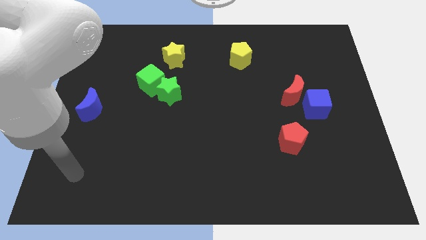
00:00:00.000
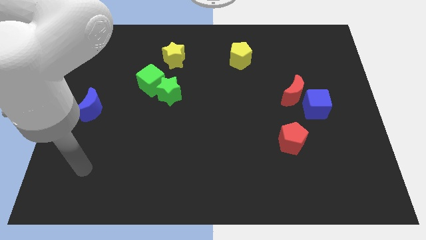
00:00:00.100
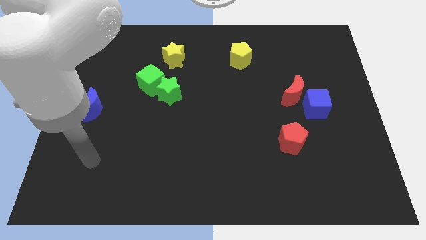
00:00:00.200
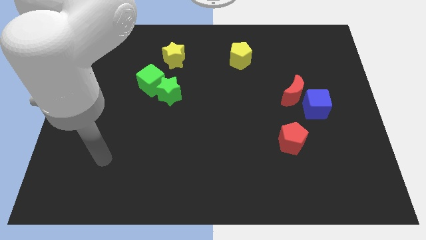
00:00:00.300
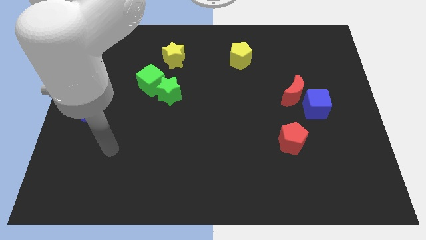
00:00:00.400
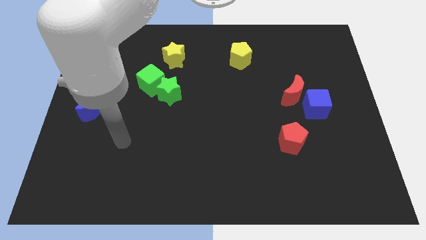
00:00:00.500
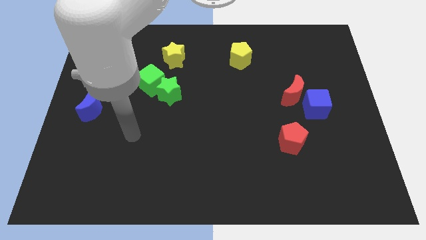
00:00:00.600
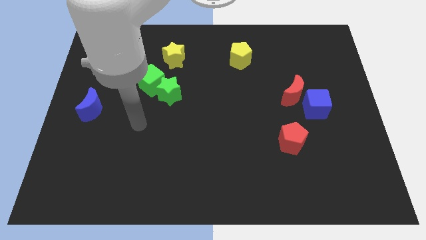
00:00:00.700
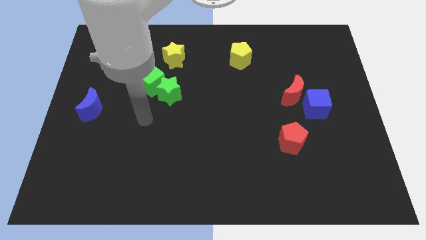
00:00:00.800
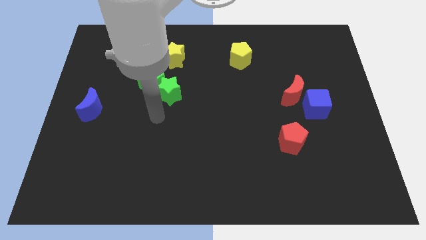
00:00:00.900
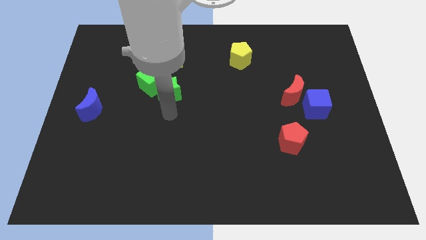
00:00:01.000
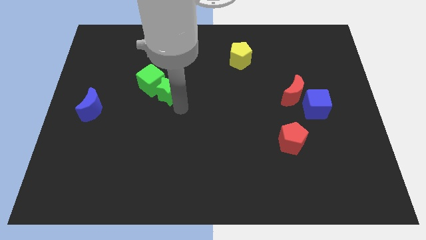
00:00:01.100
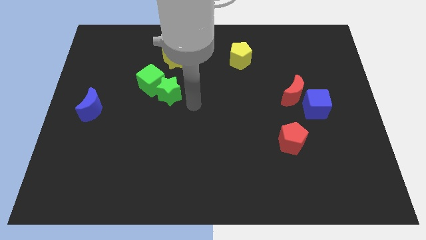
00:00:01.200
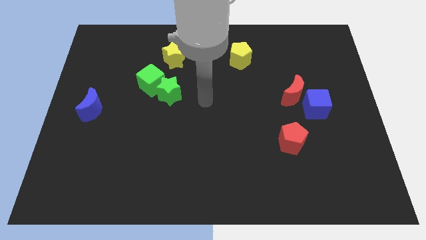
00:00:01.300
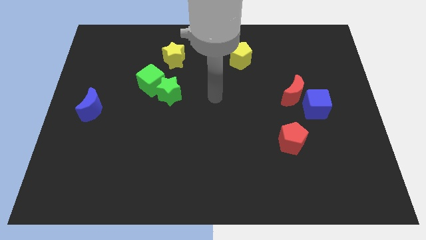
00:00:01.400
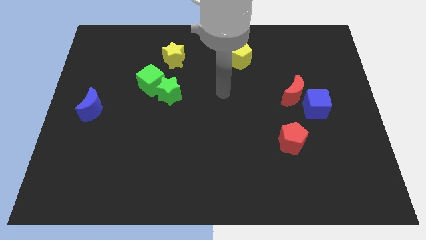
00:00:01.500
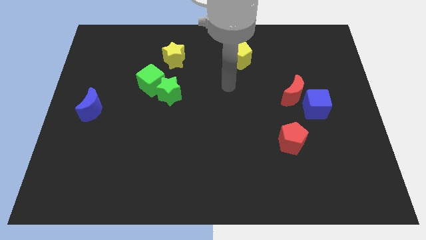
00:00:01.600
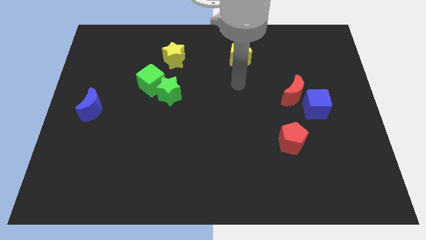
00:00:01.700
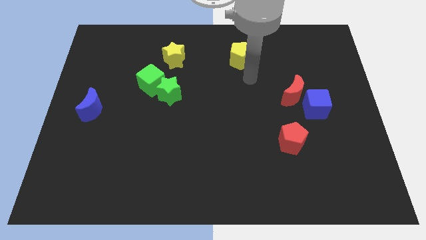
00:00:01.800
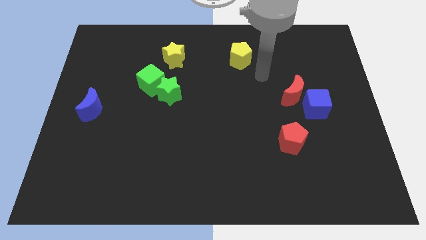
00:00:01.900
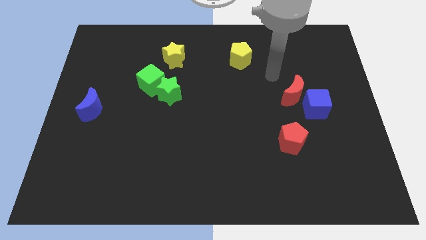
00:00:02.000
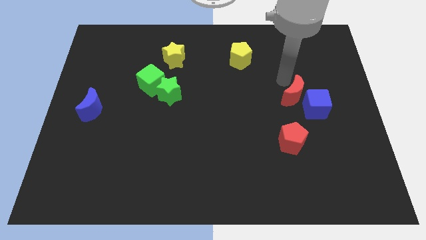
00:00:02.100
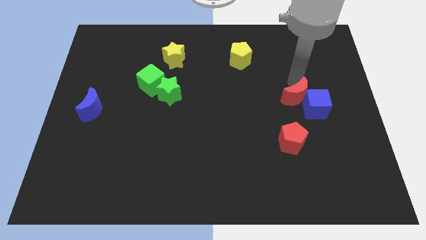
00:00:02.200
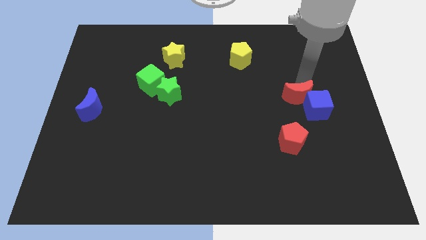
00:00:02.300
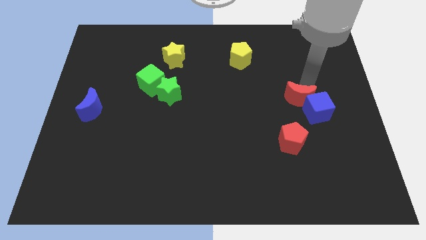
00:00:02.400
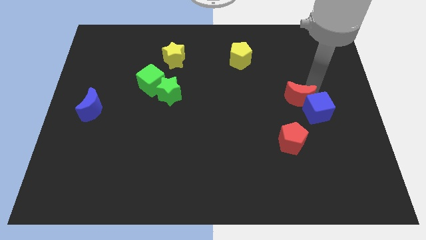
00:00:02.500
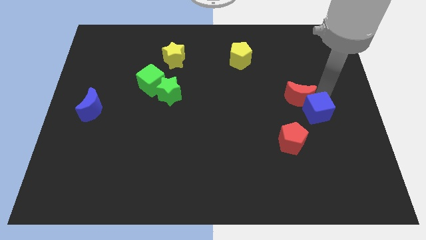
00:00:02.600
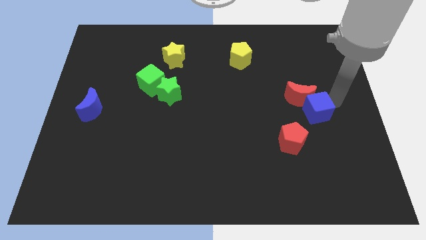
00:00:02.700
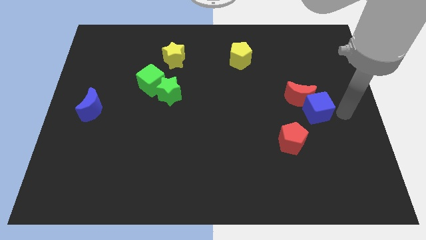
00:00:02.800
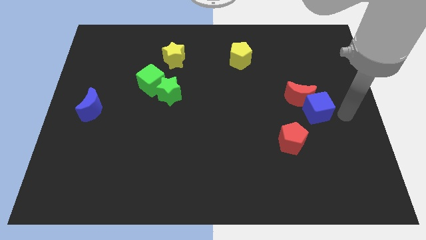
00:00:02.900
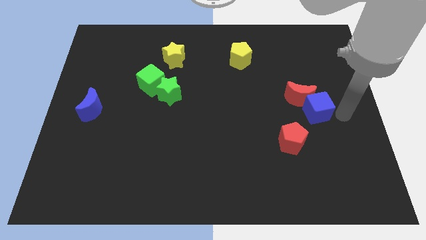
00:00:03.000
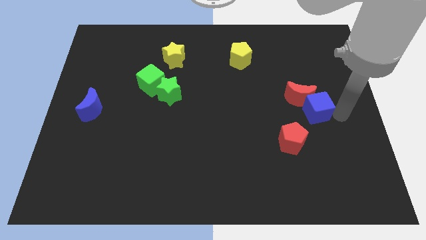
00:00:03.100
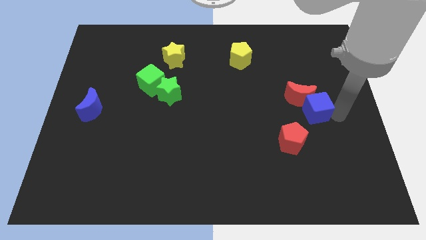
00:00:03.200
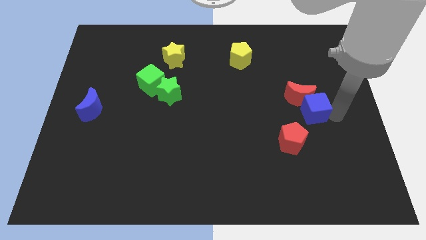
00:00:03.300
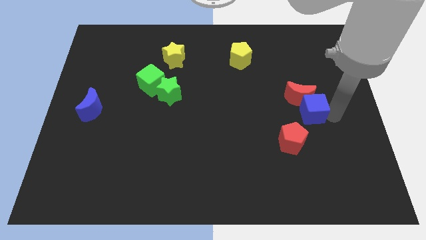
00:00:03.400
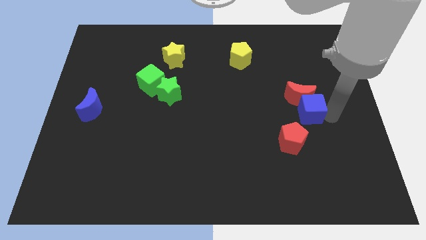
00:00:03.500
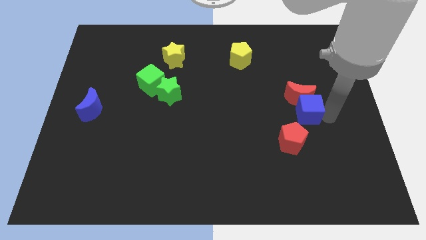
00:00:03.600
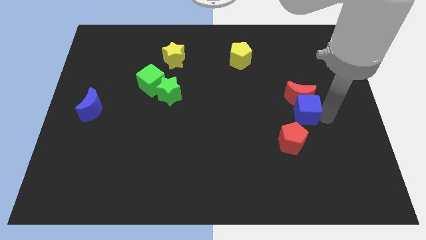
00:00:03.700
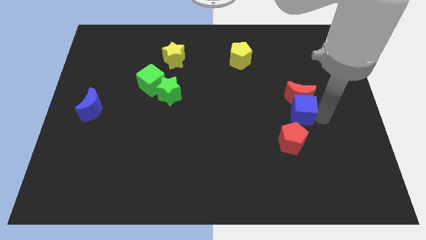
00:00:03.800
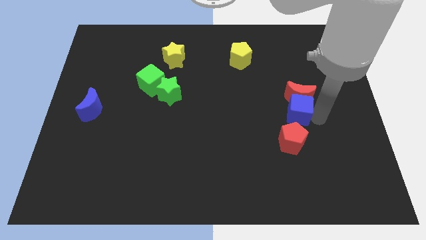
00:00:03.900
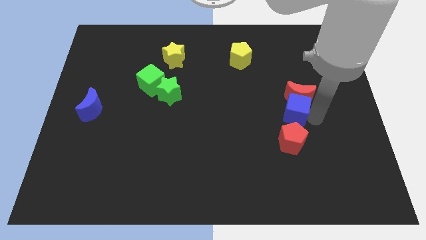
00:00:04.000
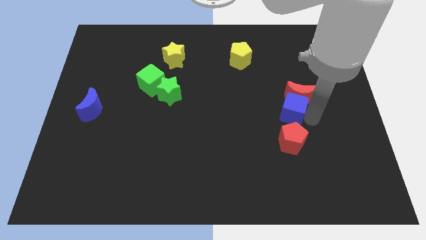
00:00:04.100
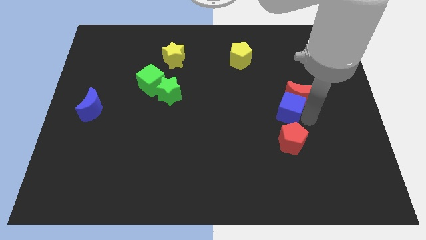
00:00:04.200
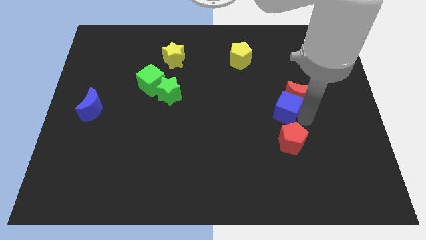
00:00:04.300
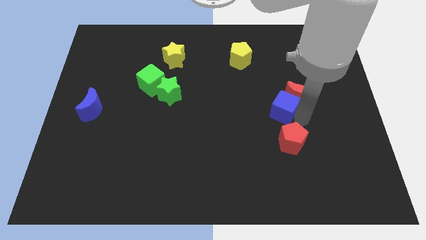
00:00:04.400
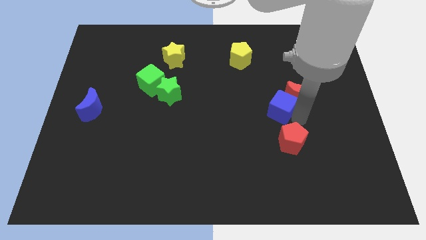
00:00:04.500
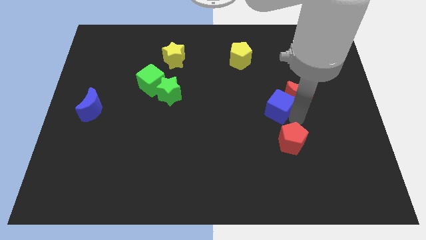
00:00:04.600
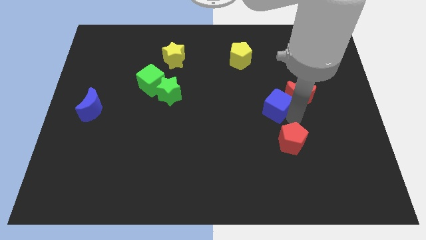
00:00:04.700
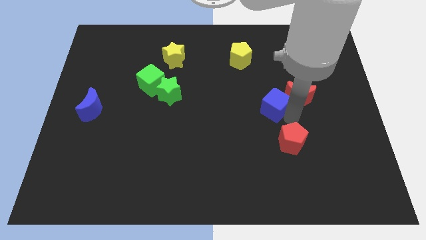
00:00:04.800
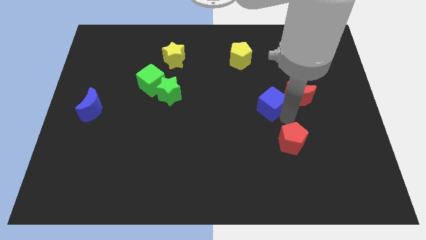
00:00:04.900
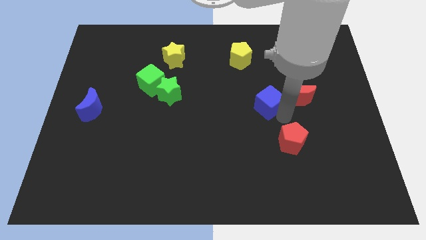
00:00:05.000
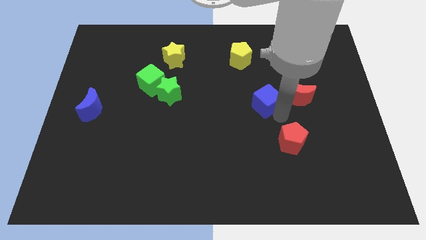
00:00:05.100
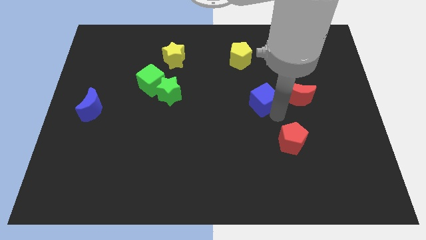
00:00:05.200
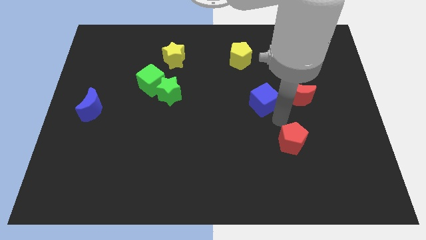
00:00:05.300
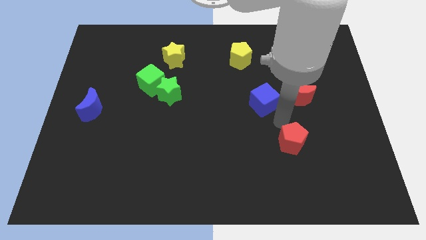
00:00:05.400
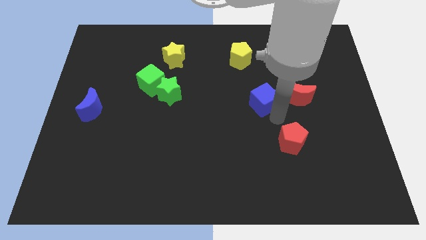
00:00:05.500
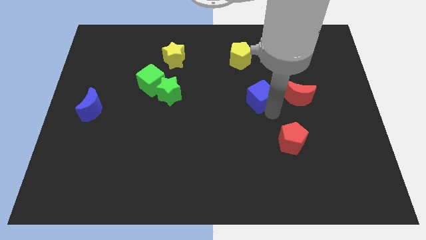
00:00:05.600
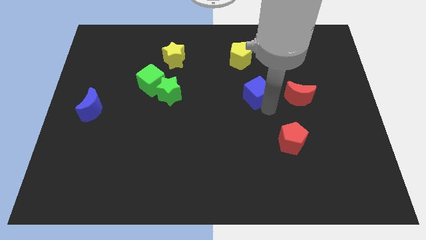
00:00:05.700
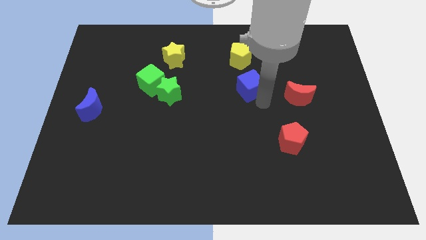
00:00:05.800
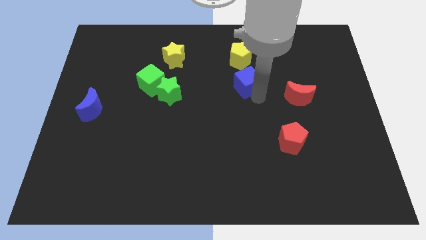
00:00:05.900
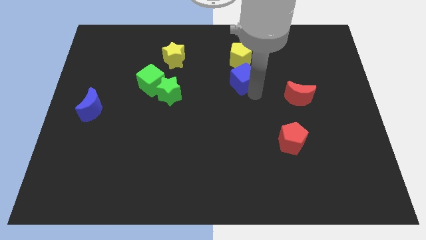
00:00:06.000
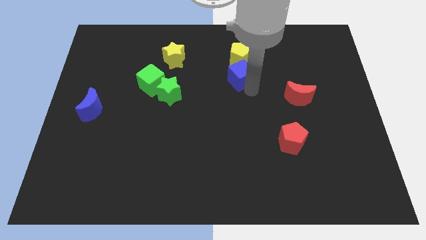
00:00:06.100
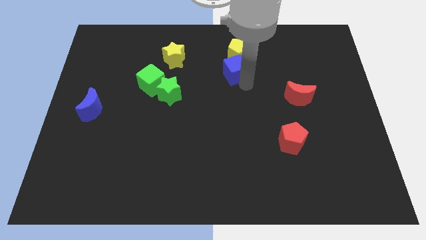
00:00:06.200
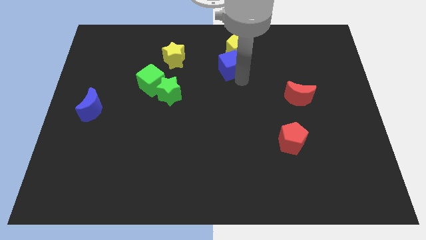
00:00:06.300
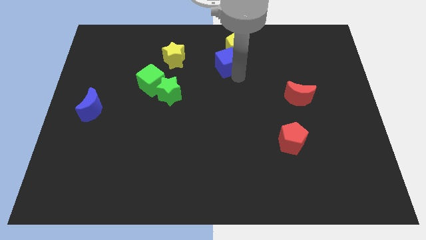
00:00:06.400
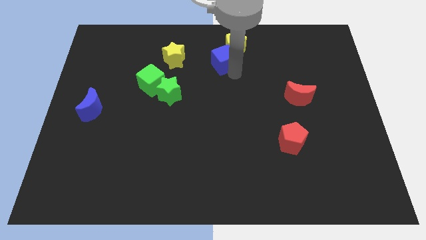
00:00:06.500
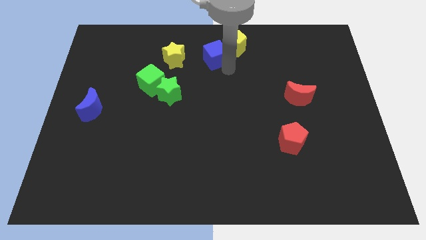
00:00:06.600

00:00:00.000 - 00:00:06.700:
push the blue cube to the top
